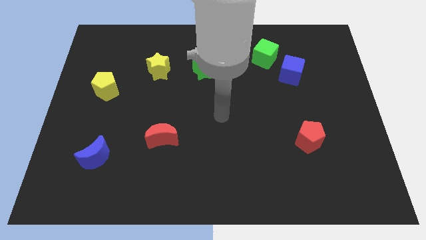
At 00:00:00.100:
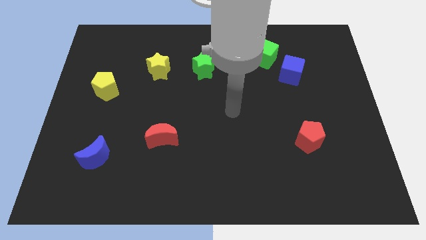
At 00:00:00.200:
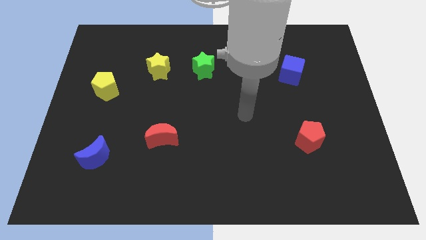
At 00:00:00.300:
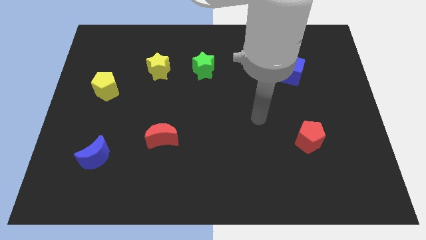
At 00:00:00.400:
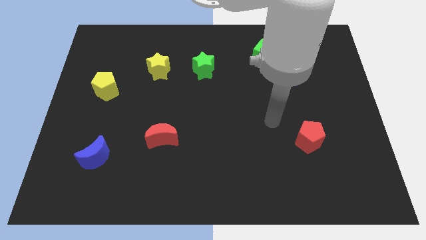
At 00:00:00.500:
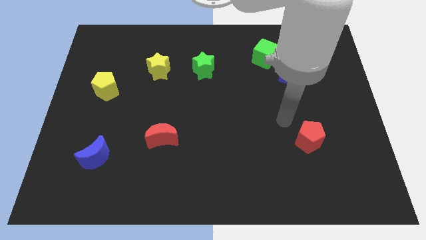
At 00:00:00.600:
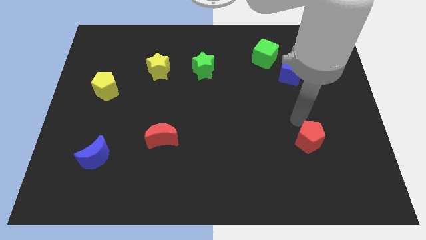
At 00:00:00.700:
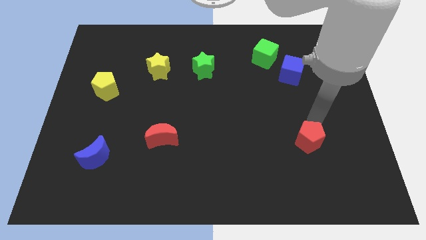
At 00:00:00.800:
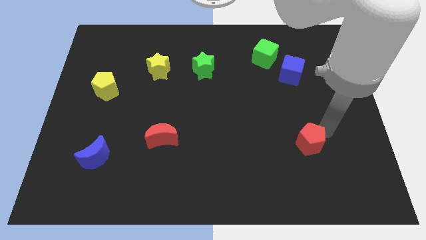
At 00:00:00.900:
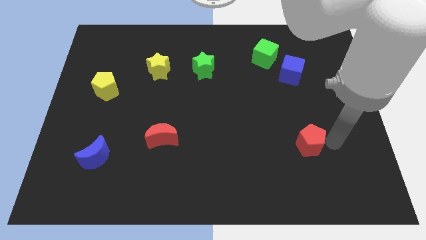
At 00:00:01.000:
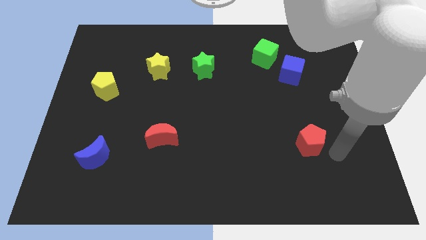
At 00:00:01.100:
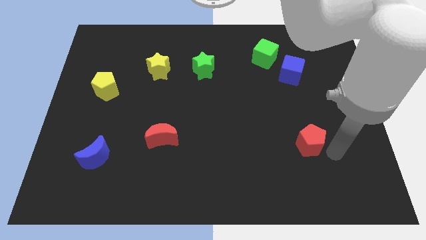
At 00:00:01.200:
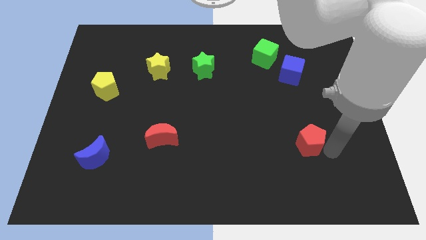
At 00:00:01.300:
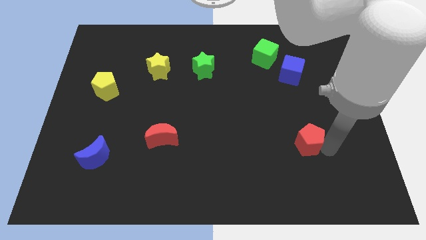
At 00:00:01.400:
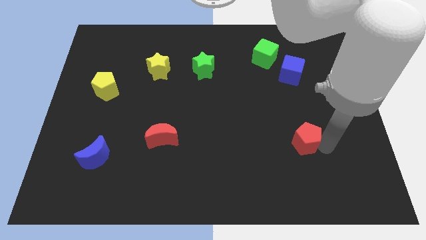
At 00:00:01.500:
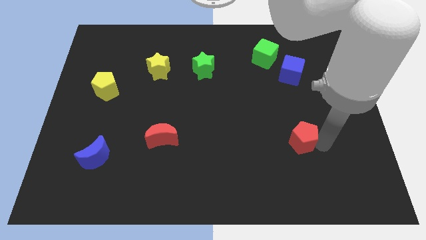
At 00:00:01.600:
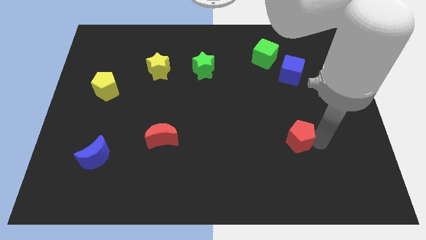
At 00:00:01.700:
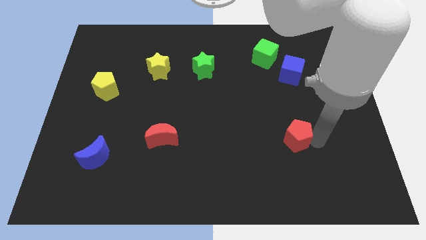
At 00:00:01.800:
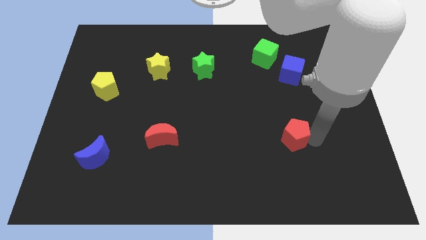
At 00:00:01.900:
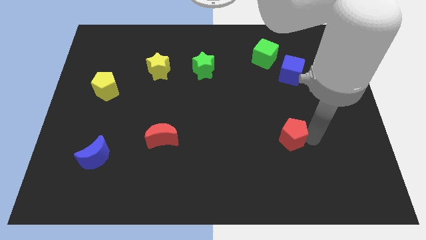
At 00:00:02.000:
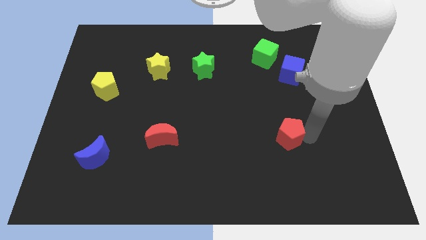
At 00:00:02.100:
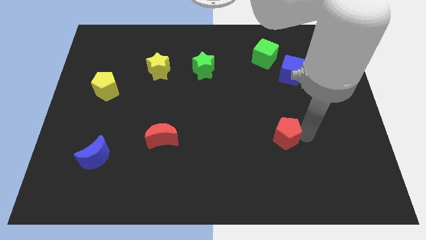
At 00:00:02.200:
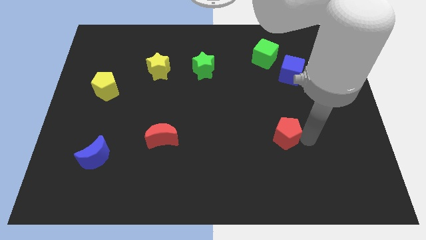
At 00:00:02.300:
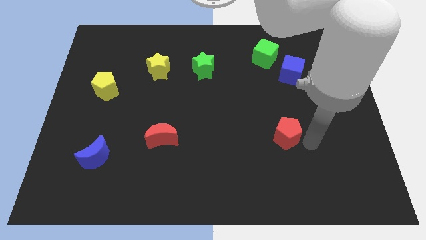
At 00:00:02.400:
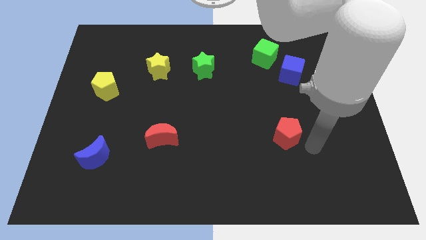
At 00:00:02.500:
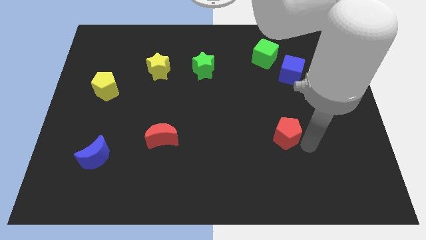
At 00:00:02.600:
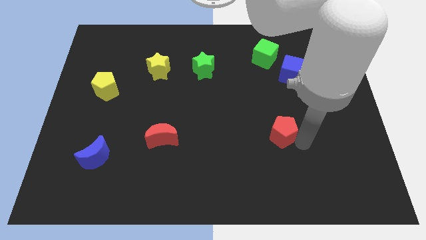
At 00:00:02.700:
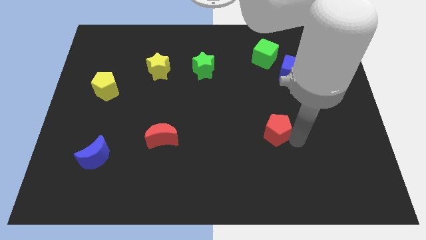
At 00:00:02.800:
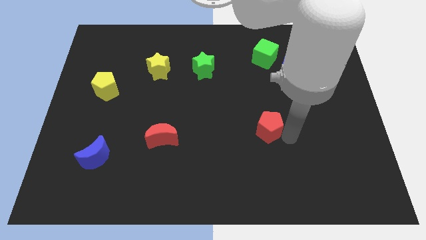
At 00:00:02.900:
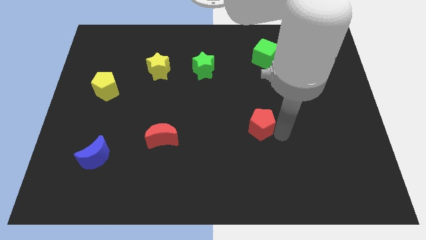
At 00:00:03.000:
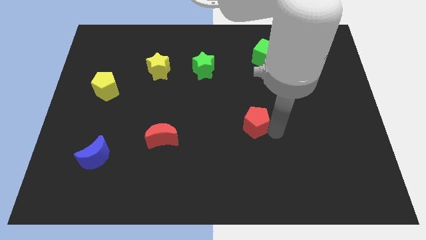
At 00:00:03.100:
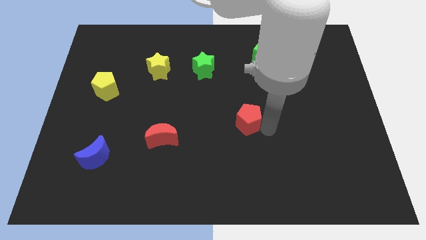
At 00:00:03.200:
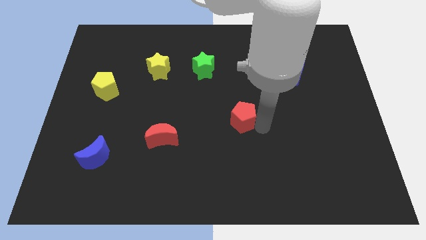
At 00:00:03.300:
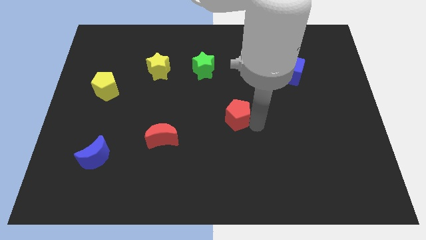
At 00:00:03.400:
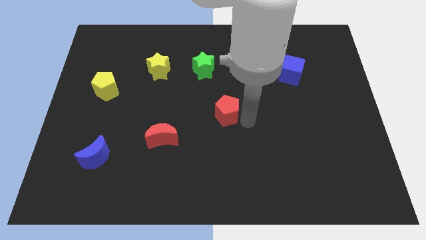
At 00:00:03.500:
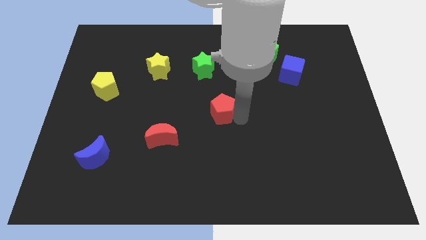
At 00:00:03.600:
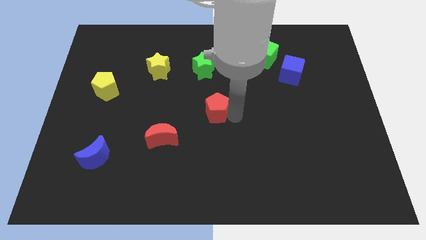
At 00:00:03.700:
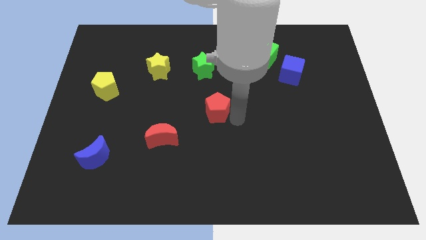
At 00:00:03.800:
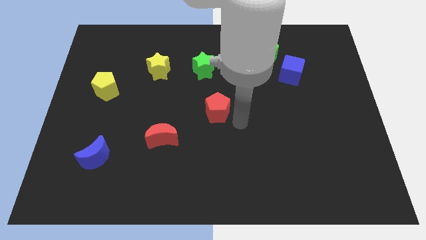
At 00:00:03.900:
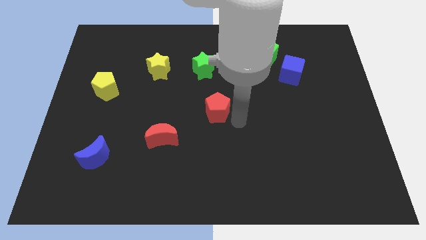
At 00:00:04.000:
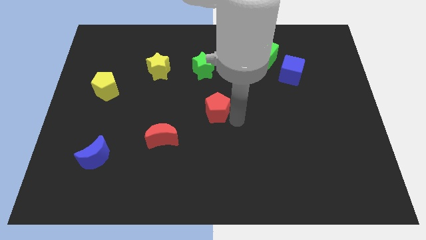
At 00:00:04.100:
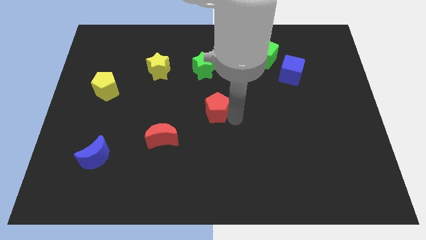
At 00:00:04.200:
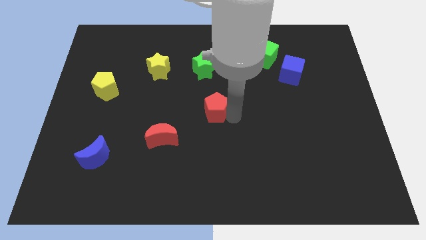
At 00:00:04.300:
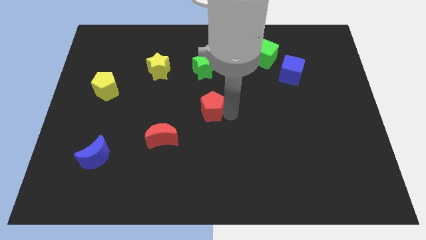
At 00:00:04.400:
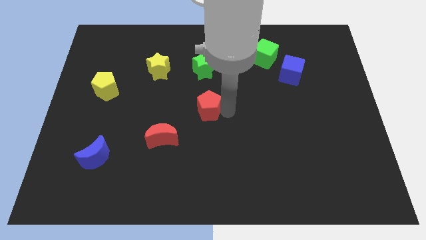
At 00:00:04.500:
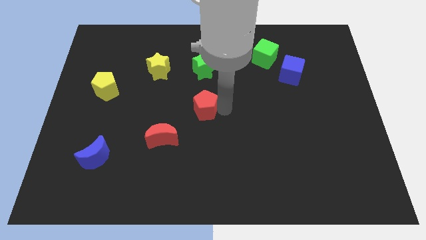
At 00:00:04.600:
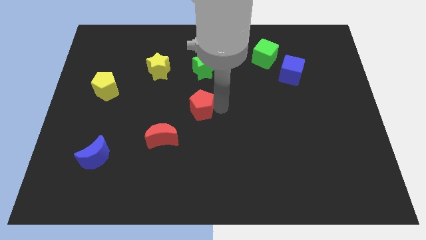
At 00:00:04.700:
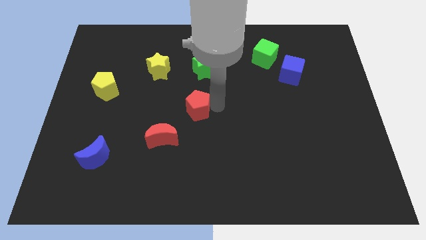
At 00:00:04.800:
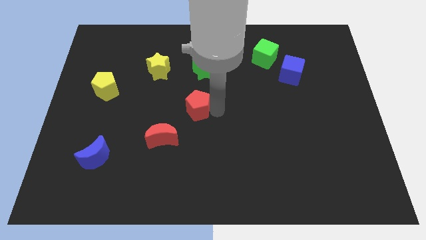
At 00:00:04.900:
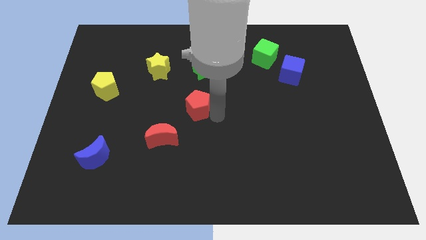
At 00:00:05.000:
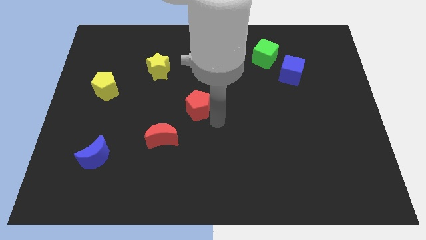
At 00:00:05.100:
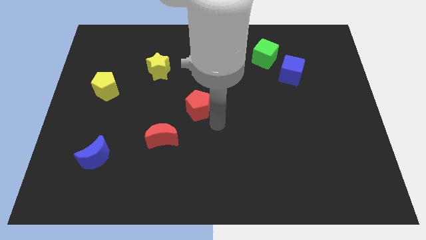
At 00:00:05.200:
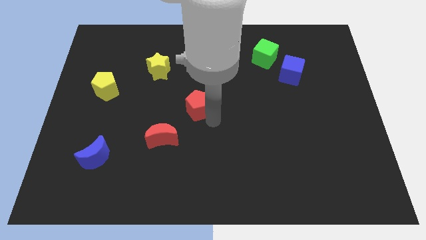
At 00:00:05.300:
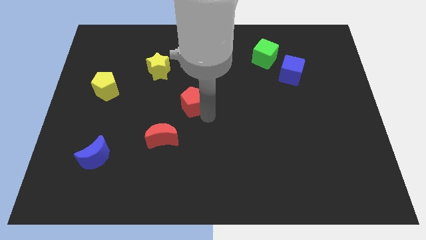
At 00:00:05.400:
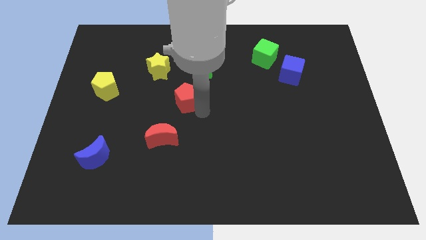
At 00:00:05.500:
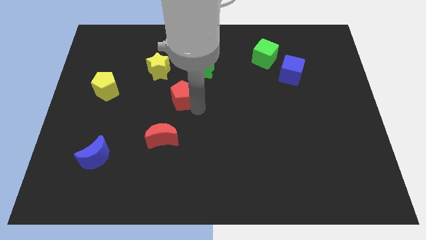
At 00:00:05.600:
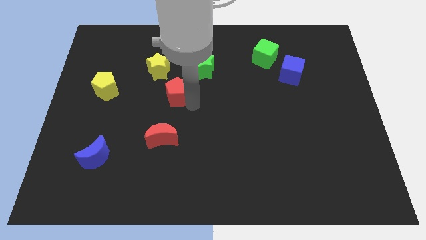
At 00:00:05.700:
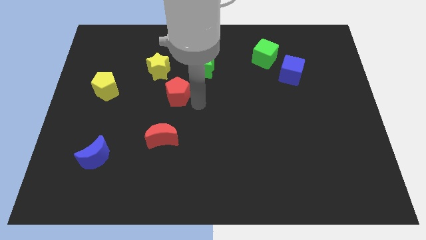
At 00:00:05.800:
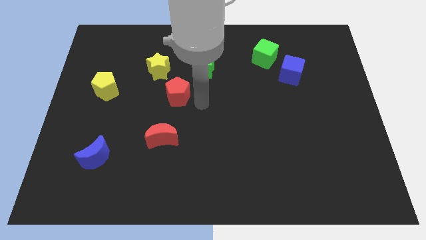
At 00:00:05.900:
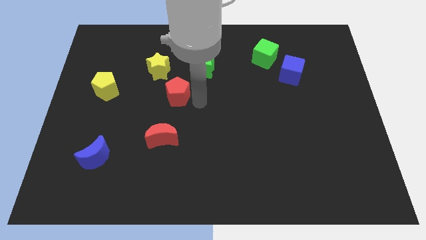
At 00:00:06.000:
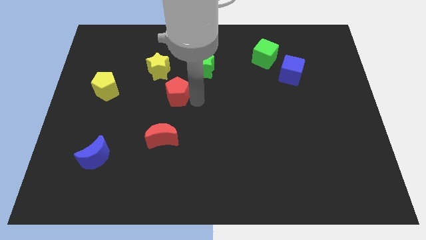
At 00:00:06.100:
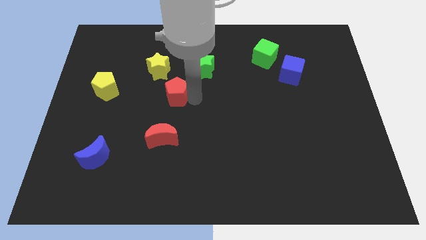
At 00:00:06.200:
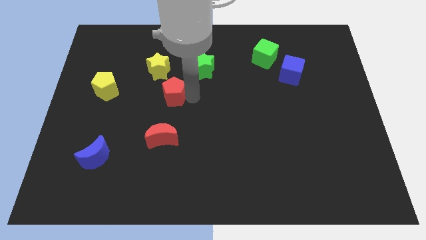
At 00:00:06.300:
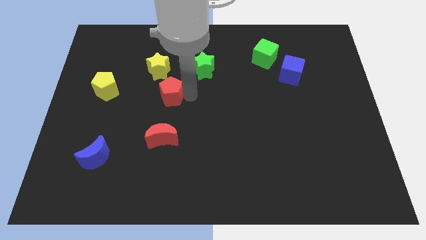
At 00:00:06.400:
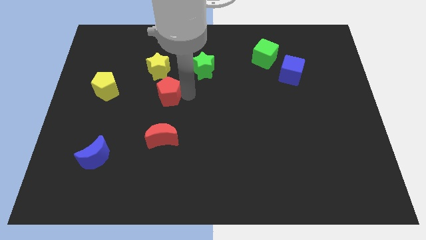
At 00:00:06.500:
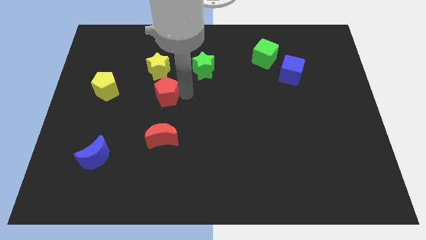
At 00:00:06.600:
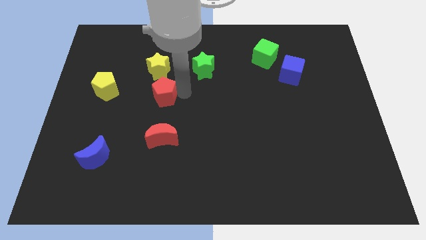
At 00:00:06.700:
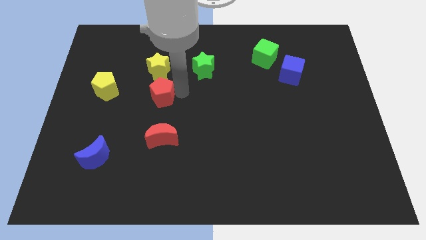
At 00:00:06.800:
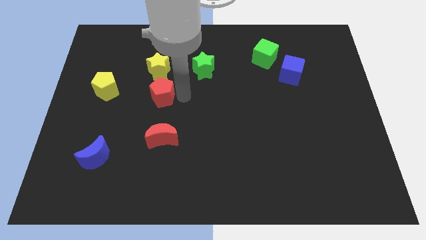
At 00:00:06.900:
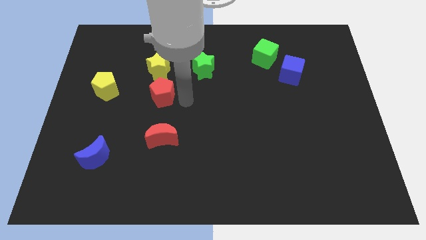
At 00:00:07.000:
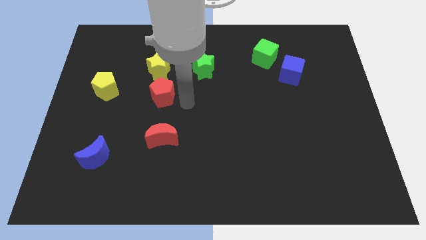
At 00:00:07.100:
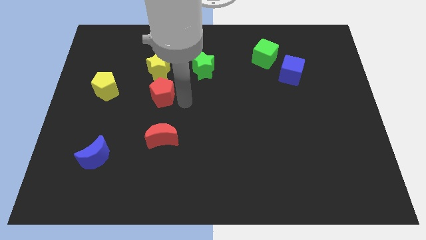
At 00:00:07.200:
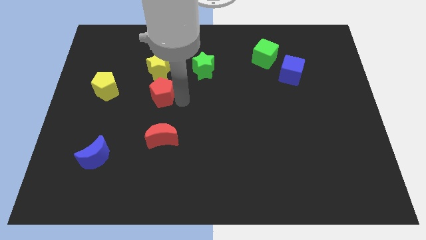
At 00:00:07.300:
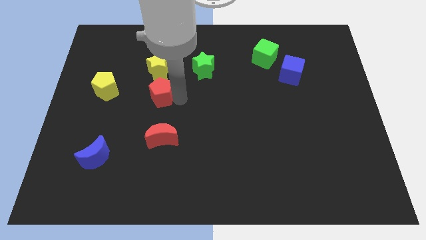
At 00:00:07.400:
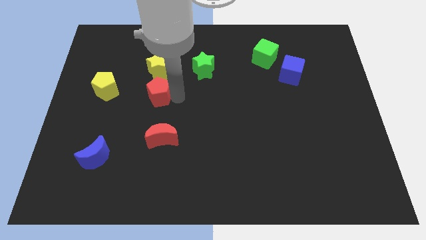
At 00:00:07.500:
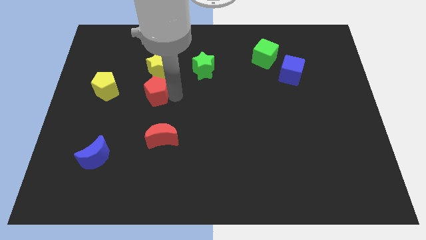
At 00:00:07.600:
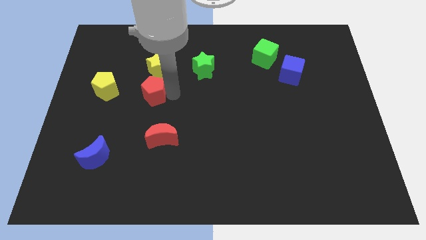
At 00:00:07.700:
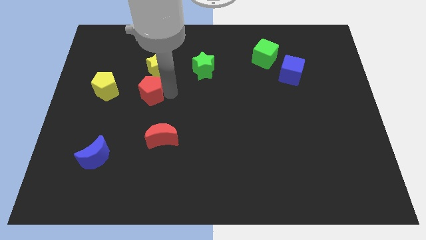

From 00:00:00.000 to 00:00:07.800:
move the red pentagon diagonally down and to the left of the yellow star
